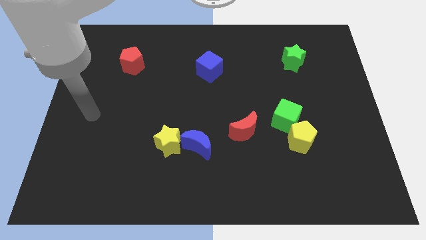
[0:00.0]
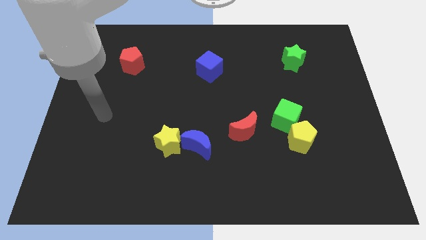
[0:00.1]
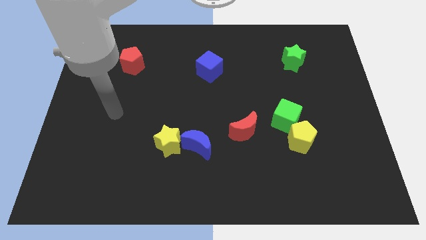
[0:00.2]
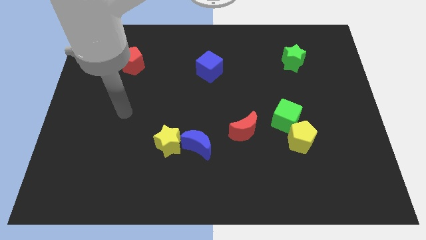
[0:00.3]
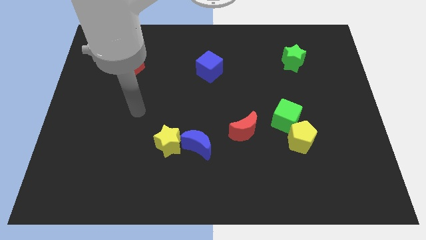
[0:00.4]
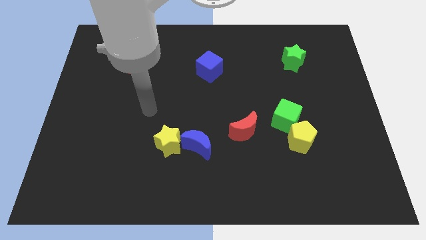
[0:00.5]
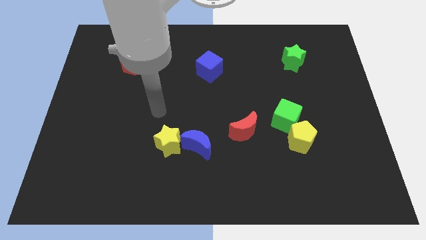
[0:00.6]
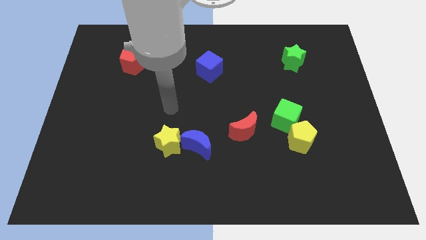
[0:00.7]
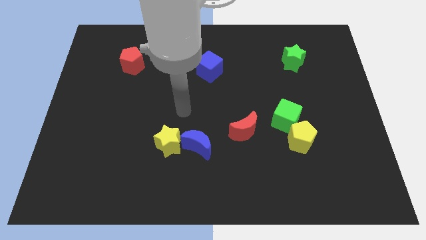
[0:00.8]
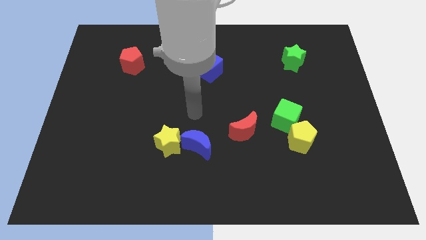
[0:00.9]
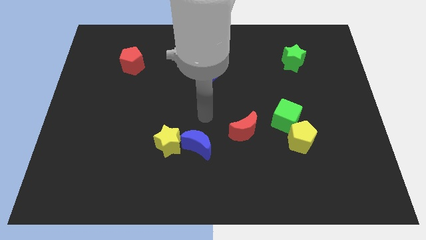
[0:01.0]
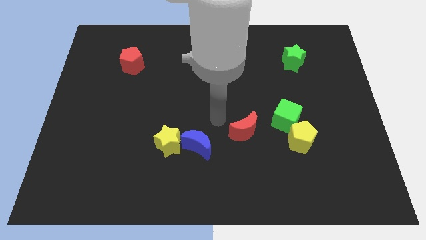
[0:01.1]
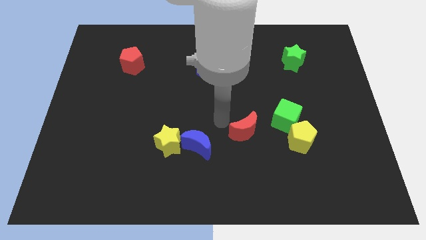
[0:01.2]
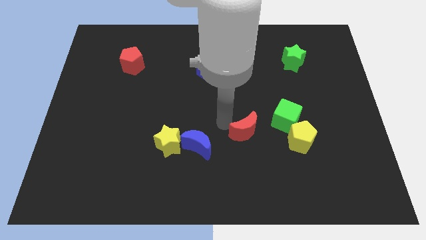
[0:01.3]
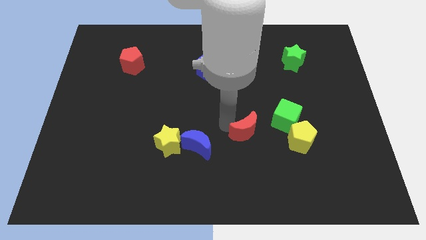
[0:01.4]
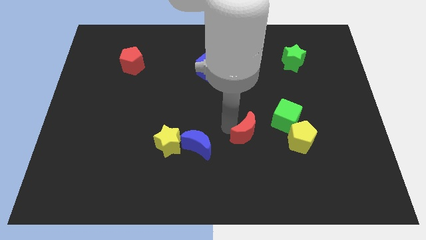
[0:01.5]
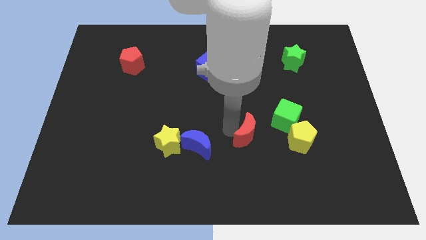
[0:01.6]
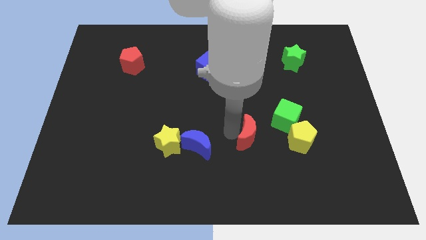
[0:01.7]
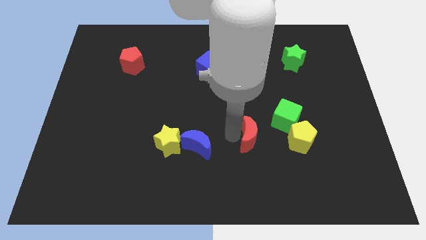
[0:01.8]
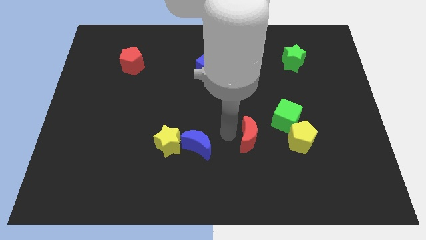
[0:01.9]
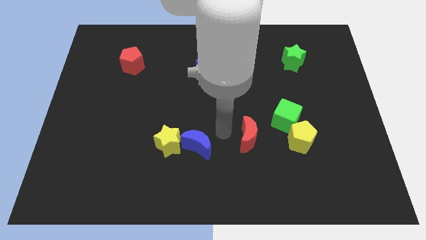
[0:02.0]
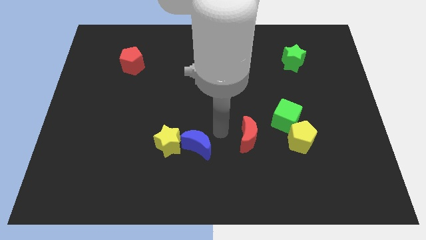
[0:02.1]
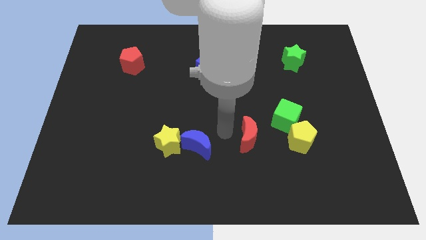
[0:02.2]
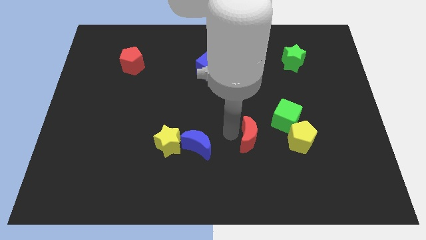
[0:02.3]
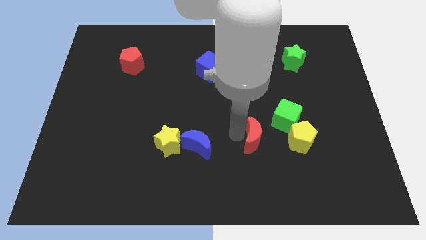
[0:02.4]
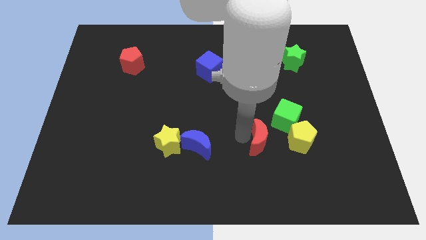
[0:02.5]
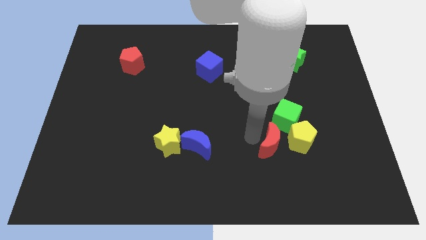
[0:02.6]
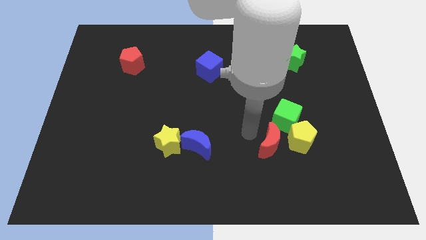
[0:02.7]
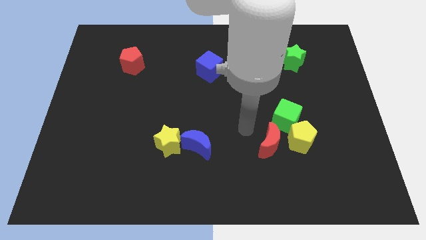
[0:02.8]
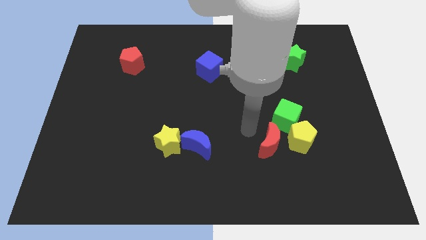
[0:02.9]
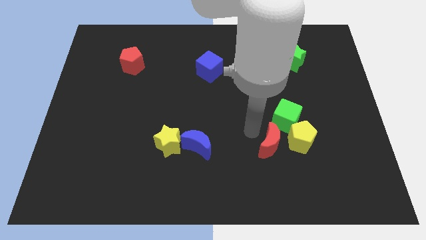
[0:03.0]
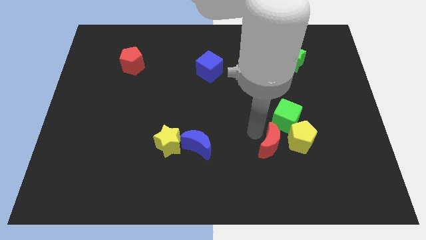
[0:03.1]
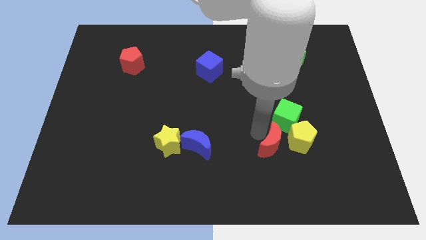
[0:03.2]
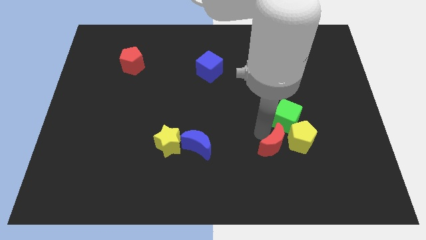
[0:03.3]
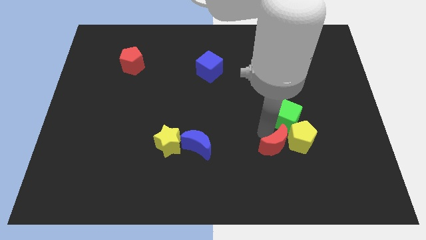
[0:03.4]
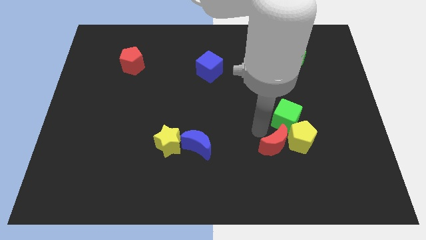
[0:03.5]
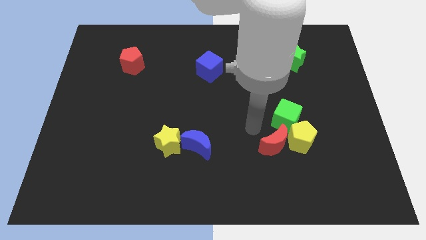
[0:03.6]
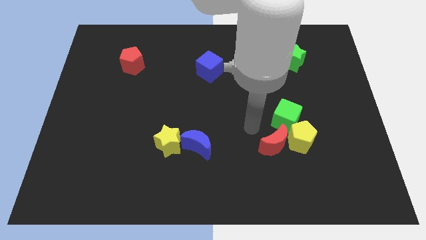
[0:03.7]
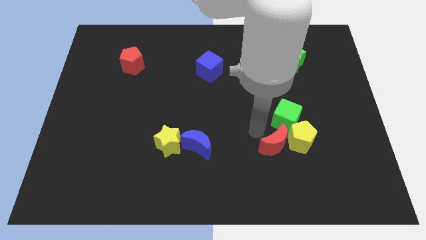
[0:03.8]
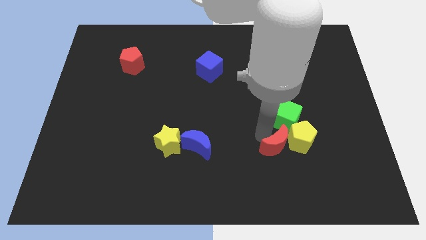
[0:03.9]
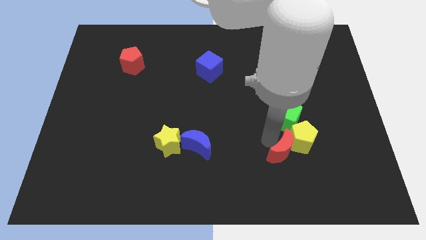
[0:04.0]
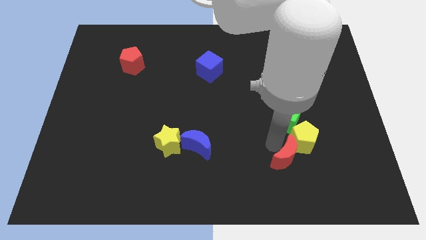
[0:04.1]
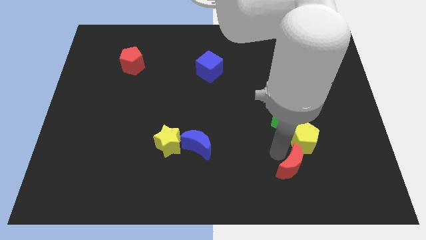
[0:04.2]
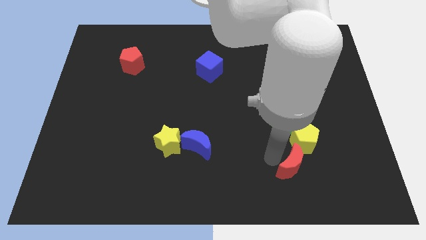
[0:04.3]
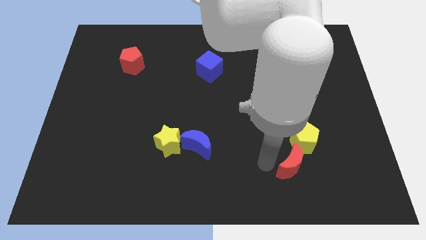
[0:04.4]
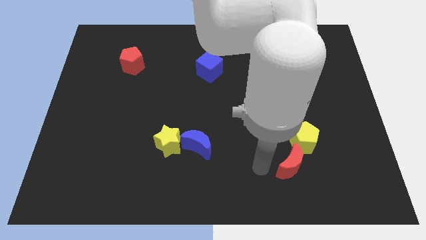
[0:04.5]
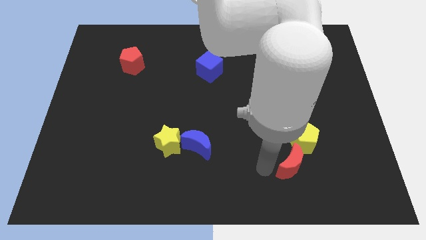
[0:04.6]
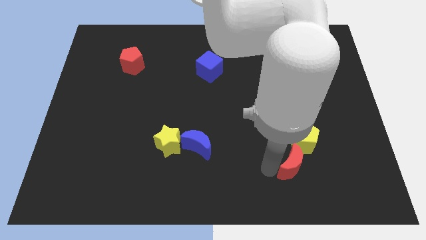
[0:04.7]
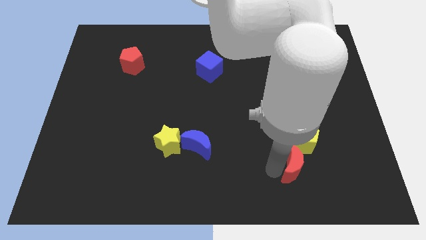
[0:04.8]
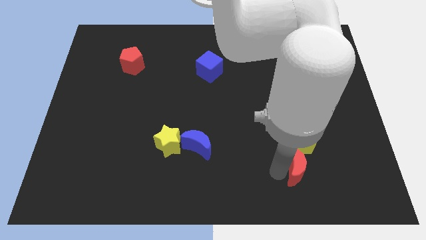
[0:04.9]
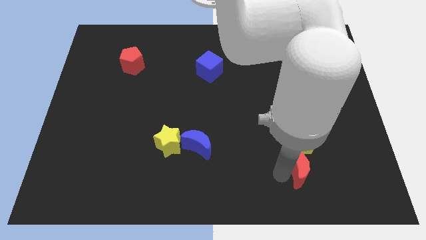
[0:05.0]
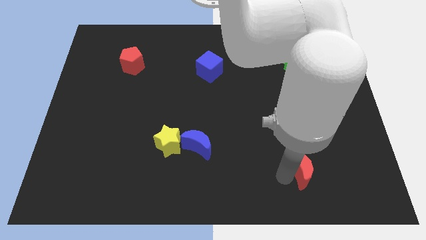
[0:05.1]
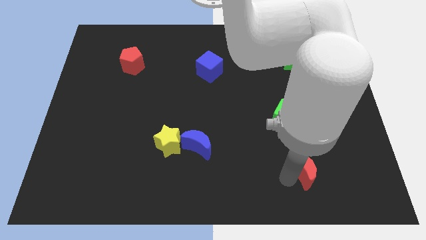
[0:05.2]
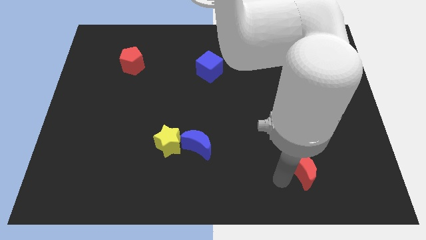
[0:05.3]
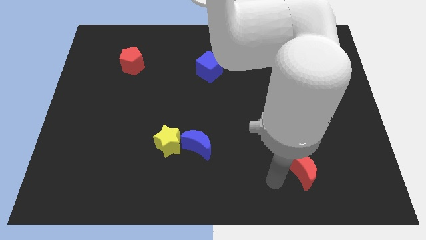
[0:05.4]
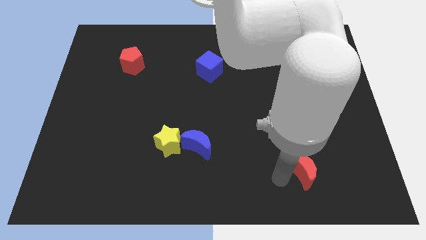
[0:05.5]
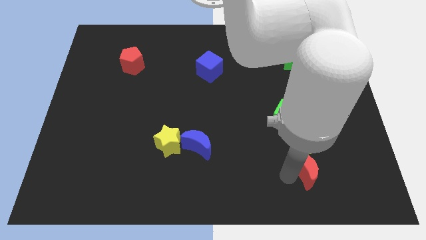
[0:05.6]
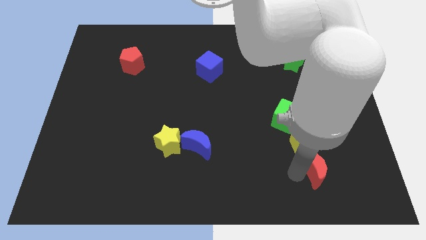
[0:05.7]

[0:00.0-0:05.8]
slide the red moon to the bottom right of the yellow pentagon
